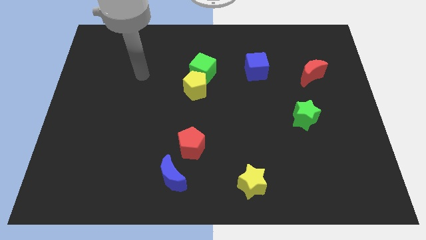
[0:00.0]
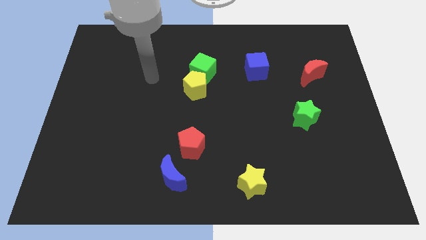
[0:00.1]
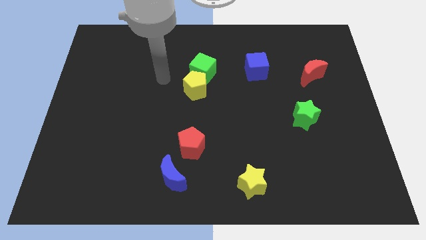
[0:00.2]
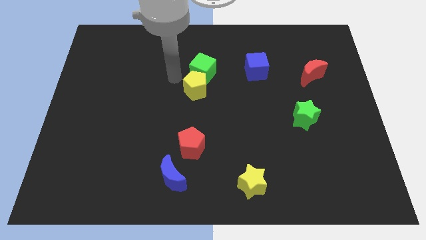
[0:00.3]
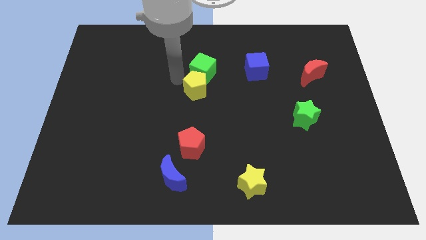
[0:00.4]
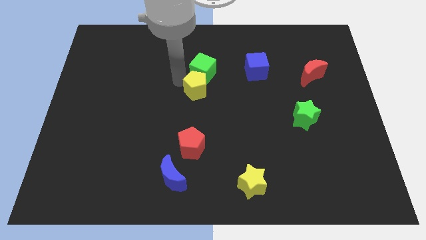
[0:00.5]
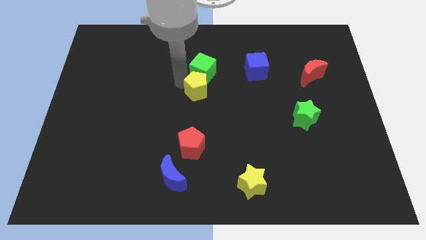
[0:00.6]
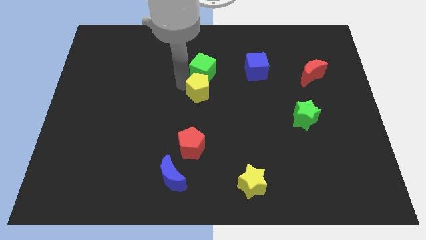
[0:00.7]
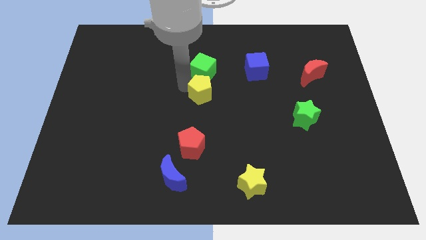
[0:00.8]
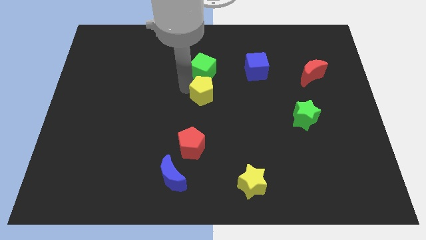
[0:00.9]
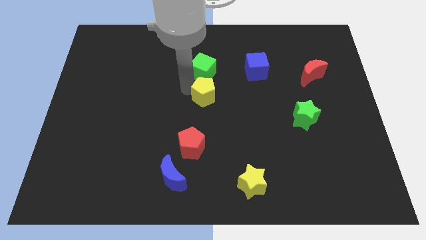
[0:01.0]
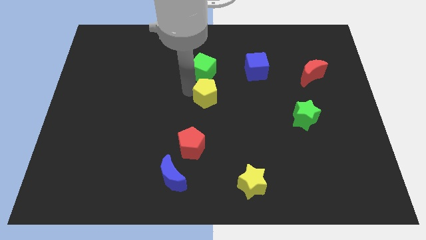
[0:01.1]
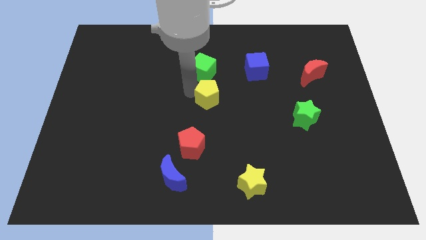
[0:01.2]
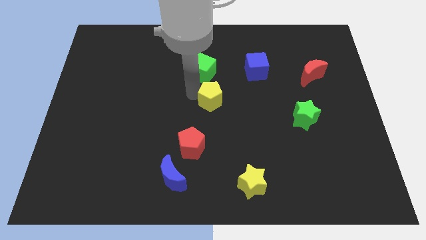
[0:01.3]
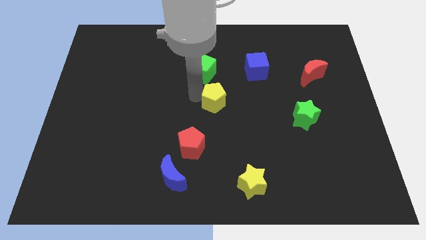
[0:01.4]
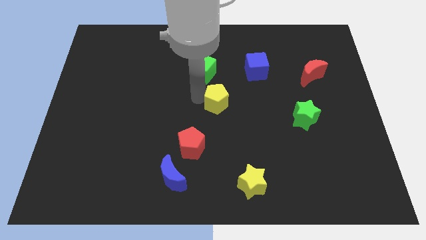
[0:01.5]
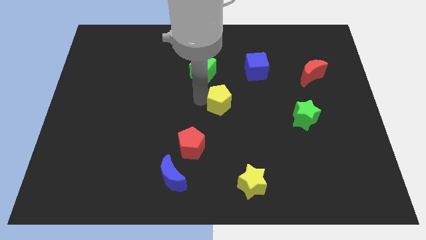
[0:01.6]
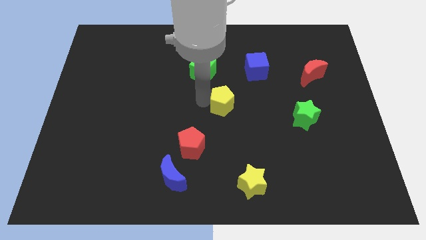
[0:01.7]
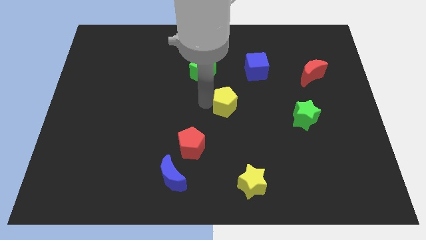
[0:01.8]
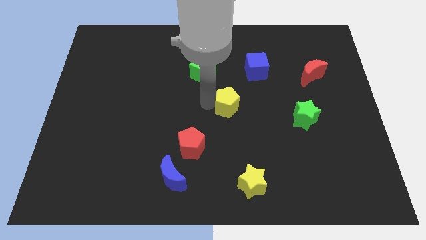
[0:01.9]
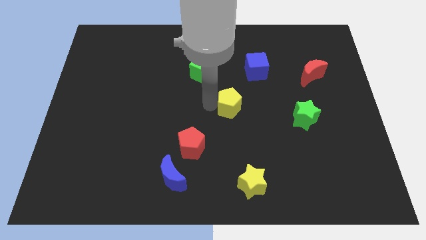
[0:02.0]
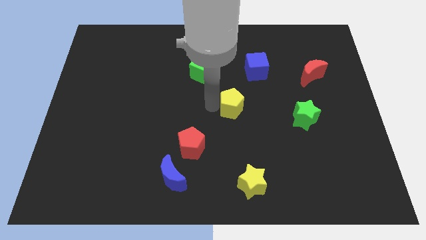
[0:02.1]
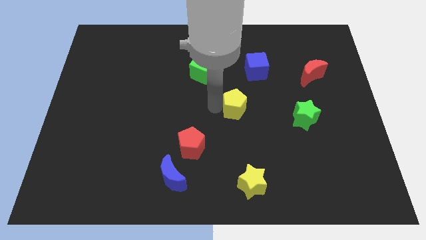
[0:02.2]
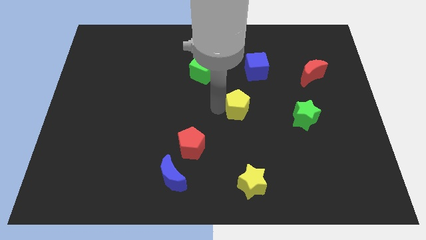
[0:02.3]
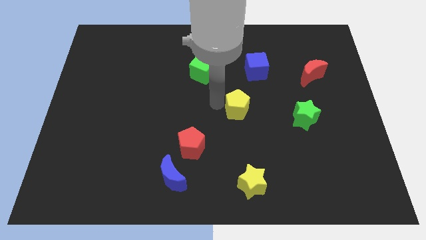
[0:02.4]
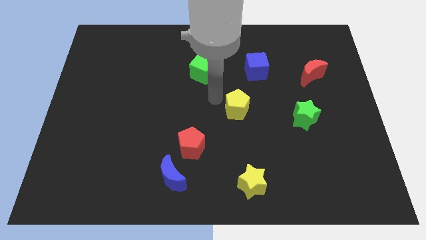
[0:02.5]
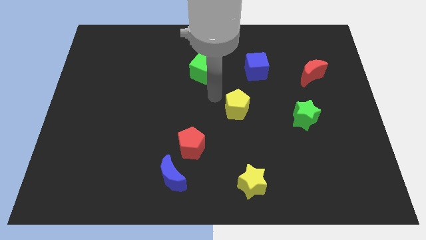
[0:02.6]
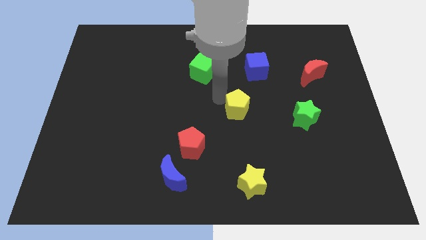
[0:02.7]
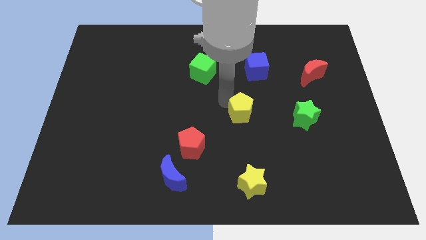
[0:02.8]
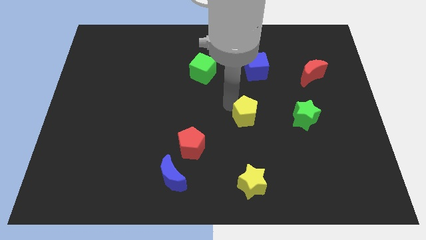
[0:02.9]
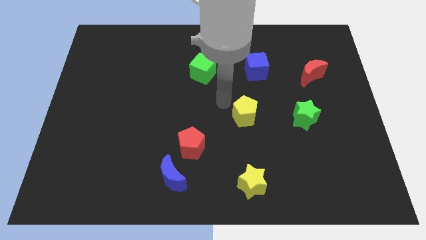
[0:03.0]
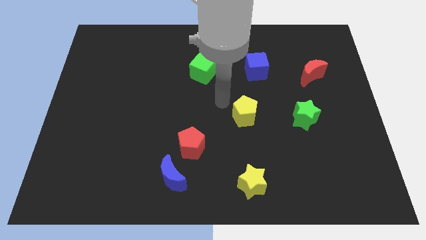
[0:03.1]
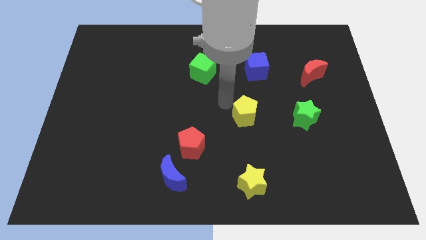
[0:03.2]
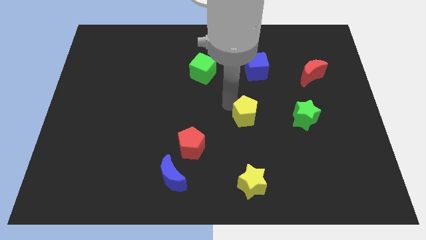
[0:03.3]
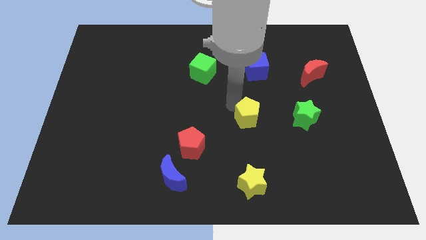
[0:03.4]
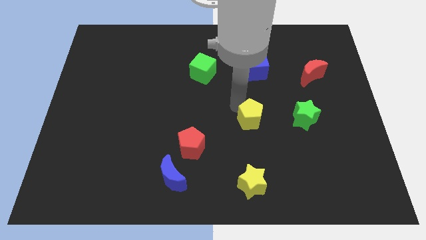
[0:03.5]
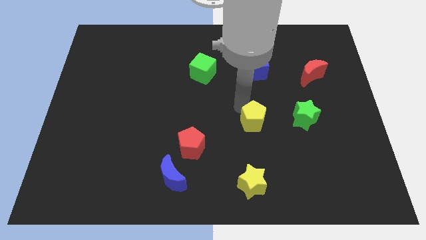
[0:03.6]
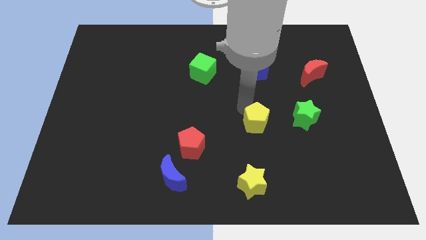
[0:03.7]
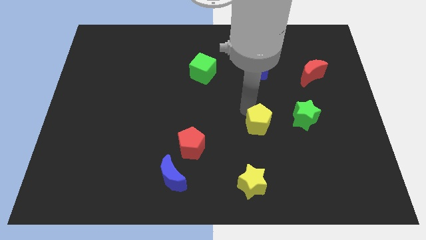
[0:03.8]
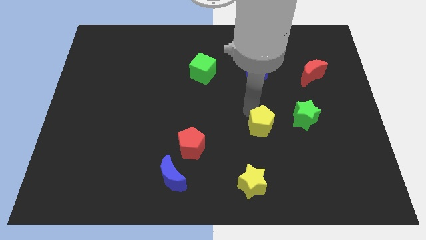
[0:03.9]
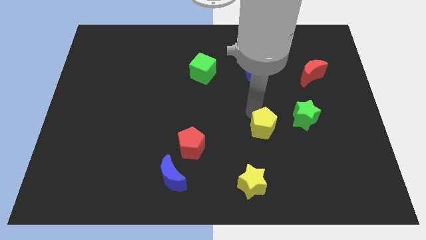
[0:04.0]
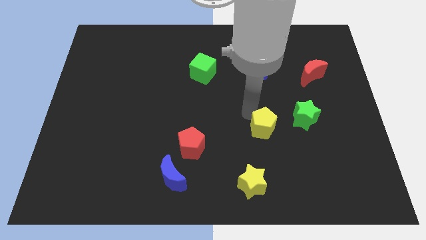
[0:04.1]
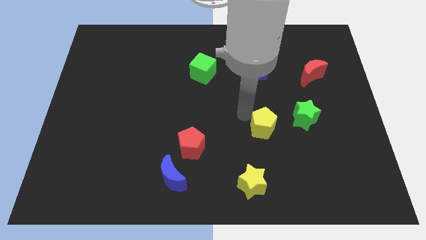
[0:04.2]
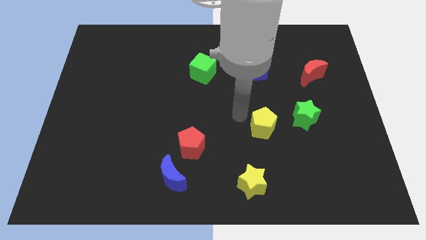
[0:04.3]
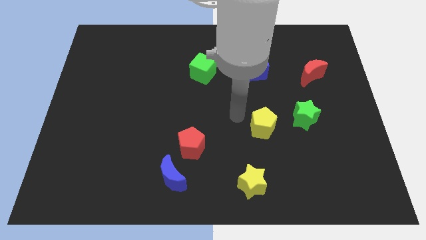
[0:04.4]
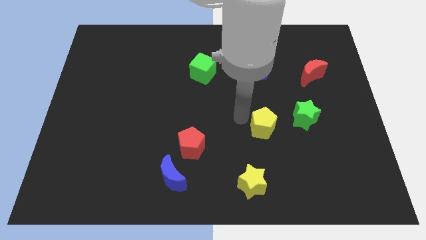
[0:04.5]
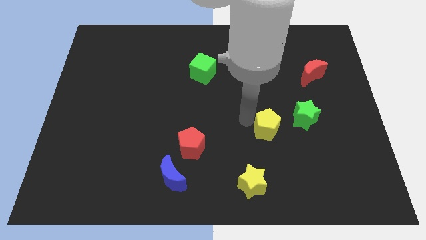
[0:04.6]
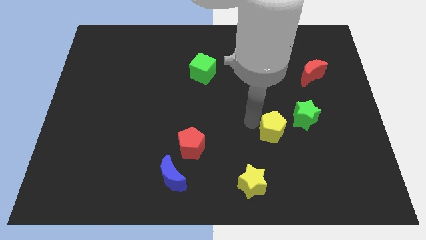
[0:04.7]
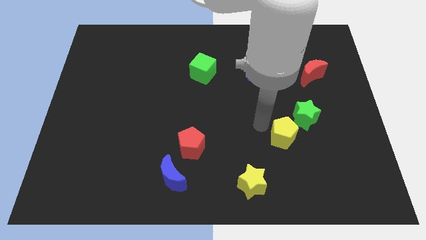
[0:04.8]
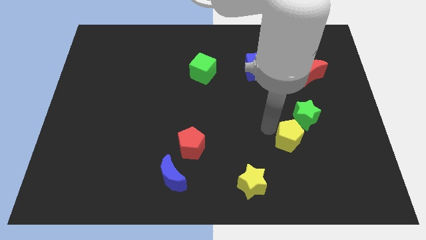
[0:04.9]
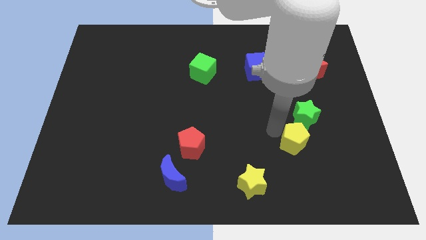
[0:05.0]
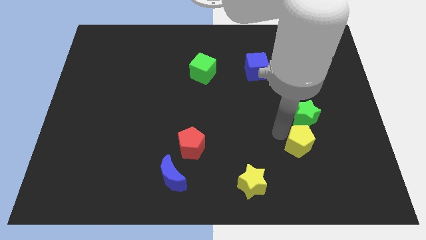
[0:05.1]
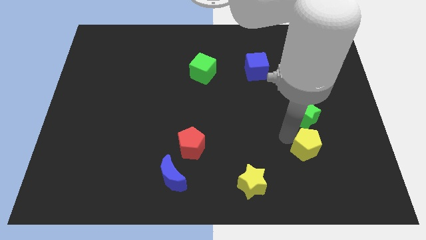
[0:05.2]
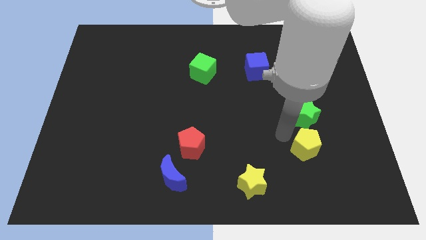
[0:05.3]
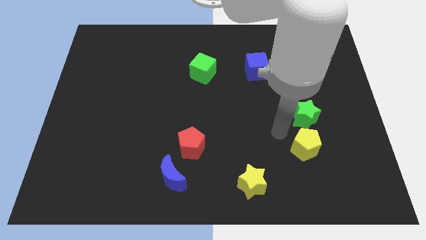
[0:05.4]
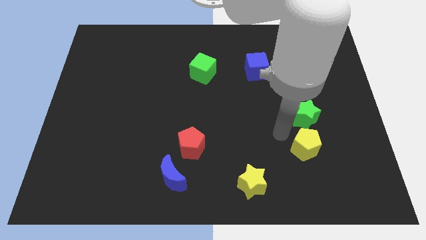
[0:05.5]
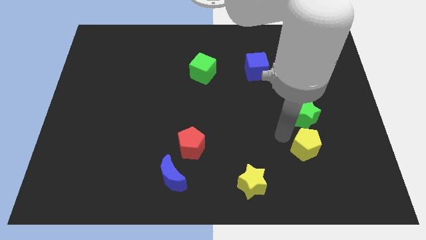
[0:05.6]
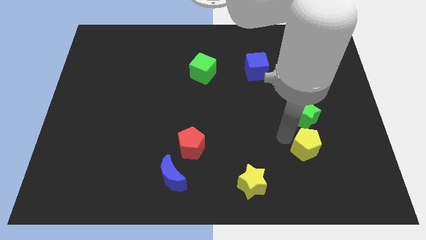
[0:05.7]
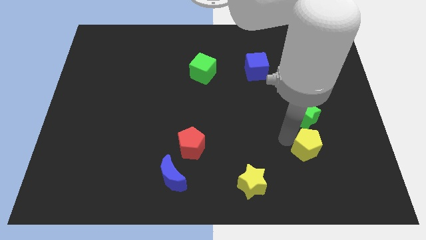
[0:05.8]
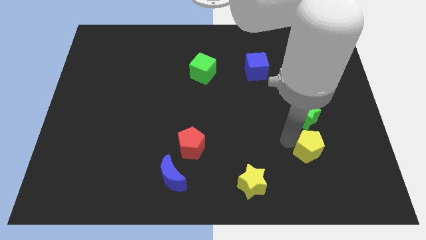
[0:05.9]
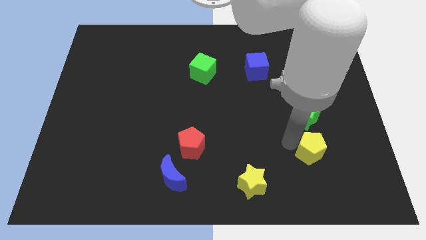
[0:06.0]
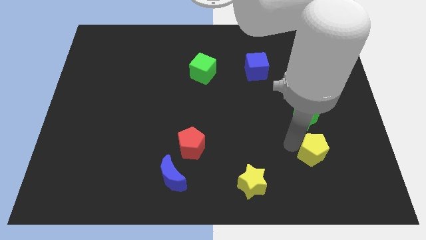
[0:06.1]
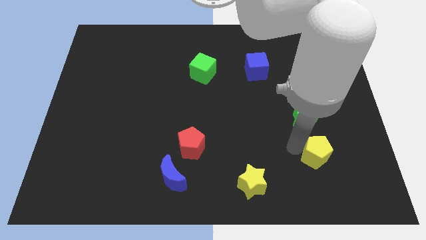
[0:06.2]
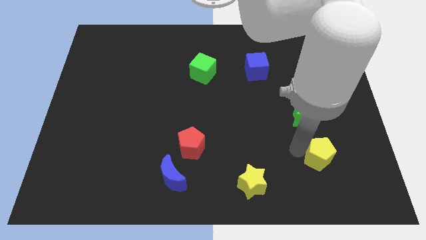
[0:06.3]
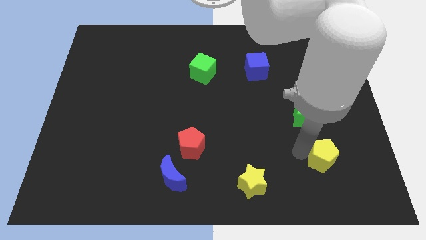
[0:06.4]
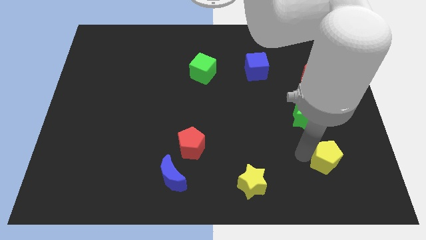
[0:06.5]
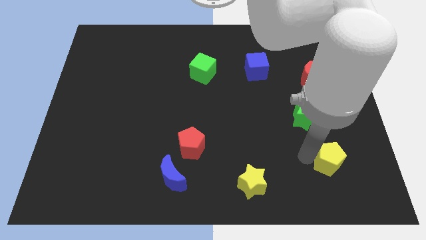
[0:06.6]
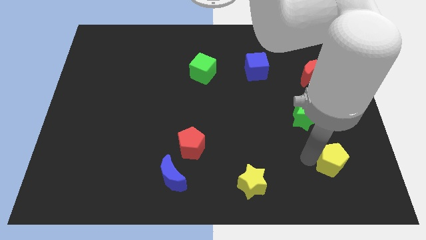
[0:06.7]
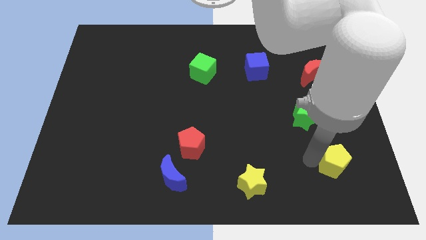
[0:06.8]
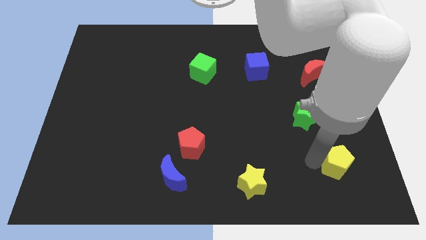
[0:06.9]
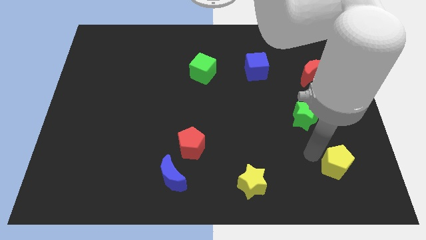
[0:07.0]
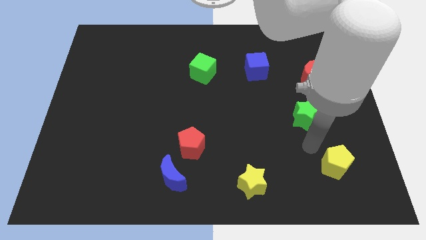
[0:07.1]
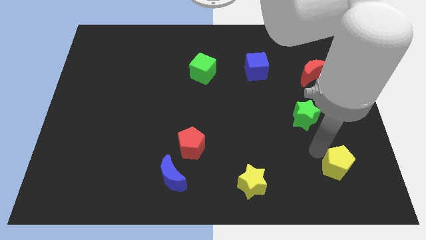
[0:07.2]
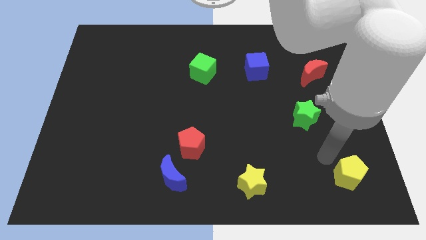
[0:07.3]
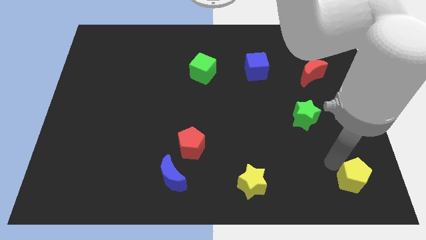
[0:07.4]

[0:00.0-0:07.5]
push the yellow pentagon to the bottom right
